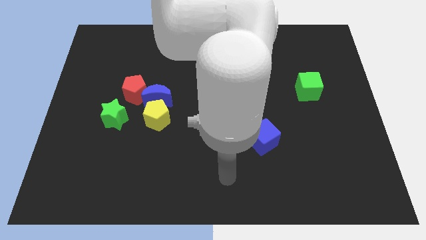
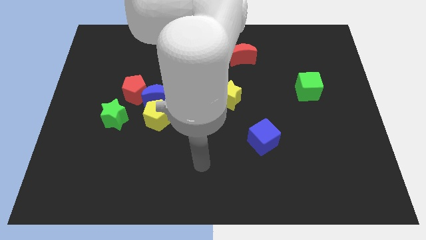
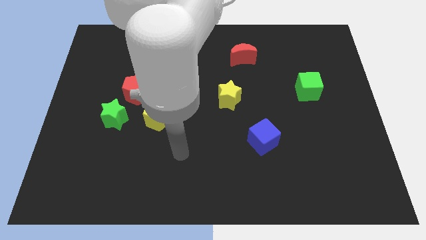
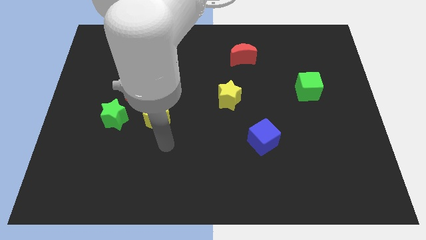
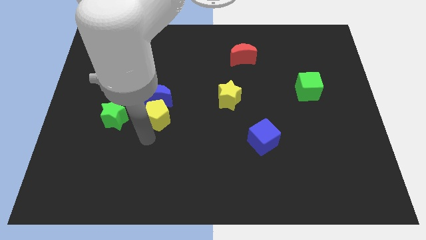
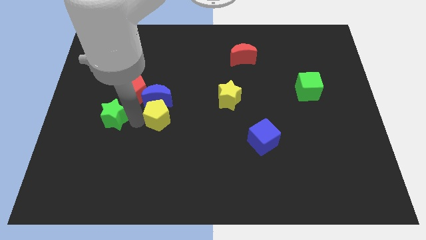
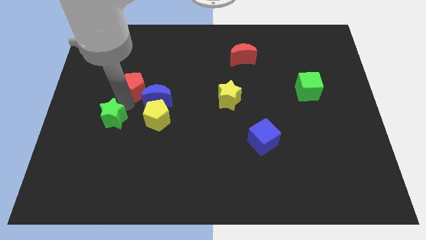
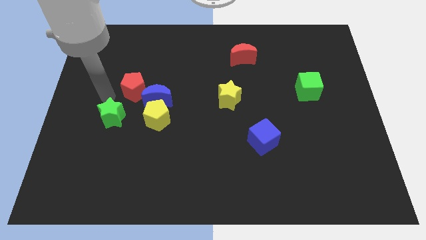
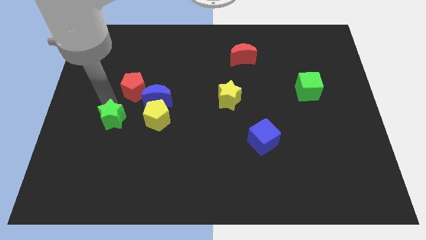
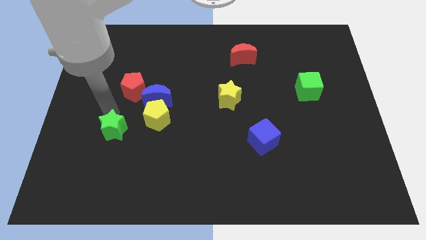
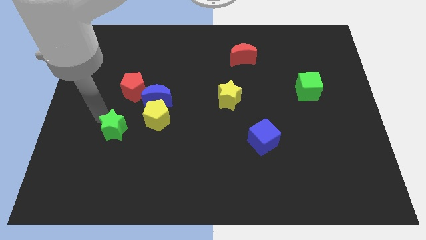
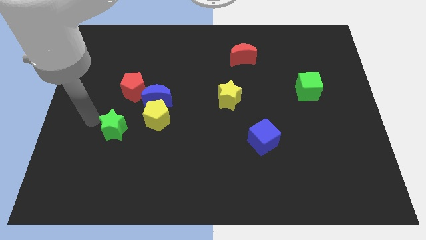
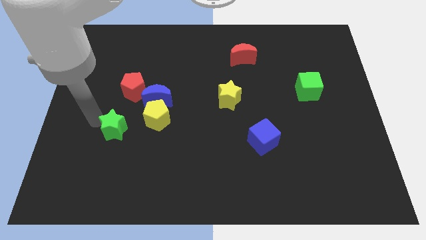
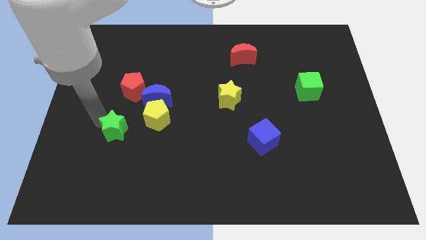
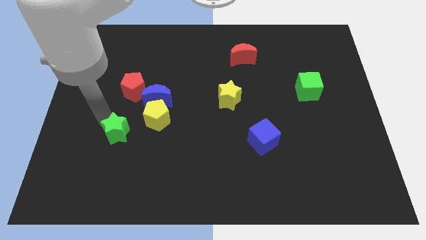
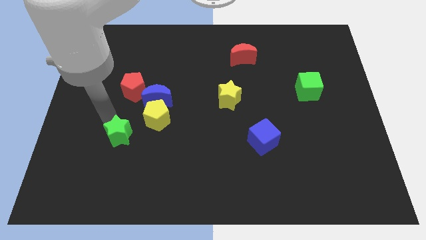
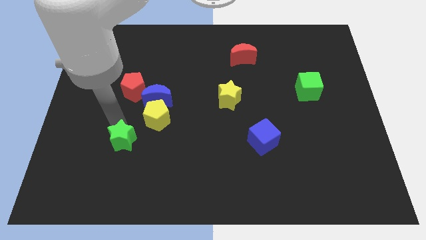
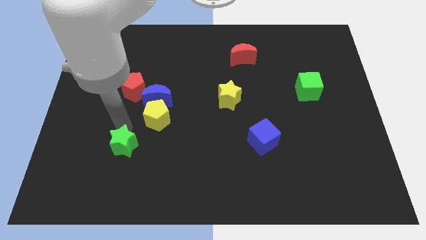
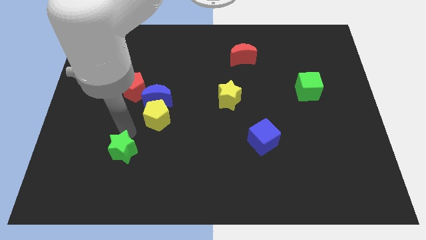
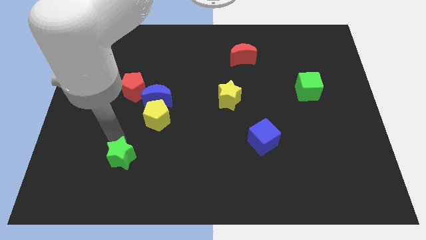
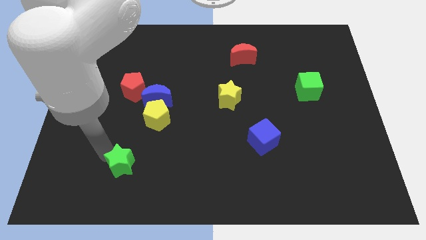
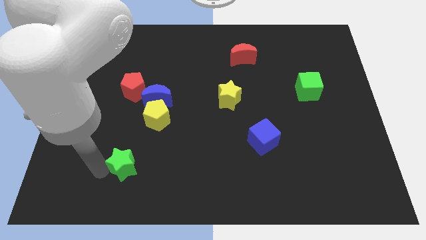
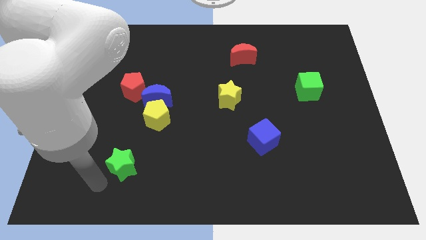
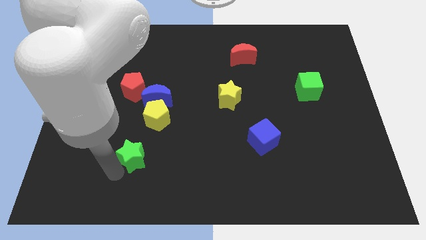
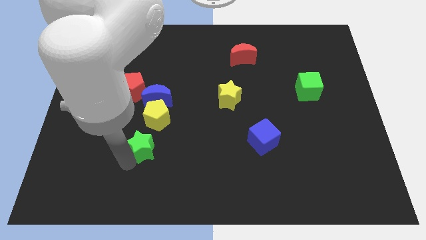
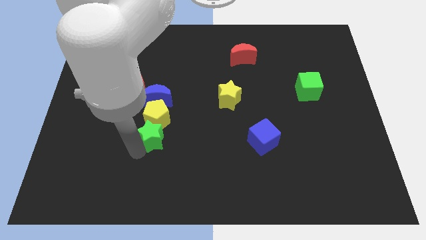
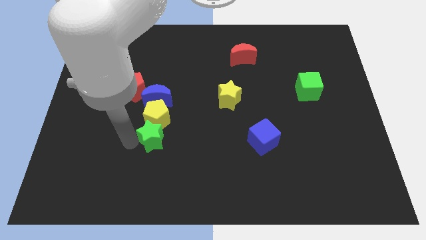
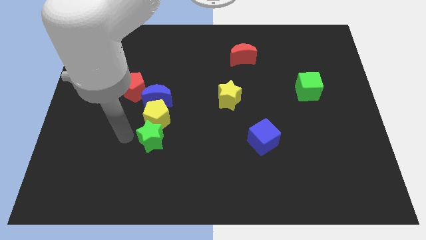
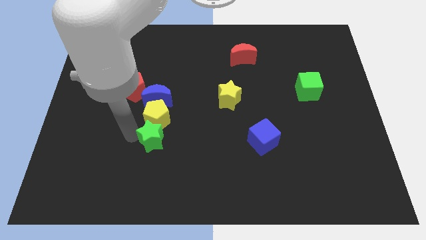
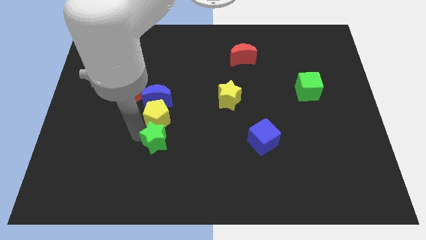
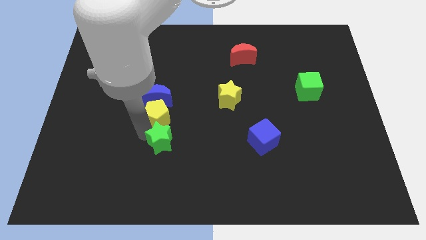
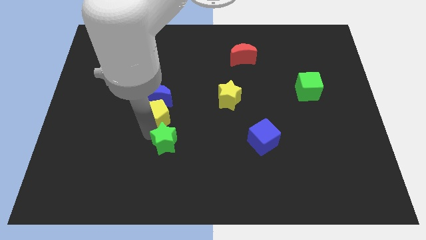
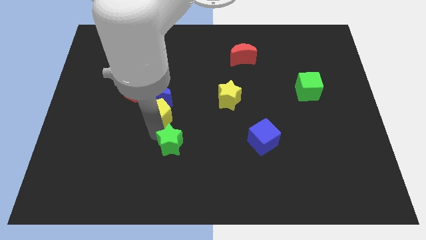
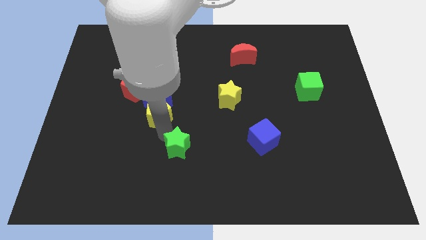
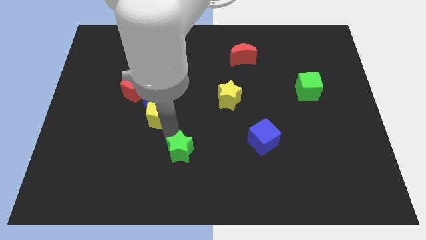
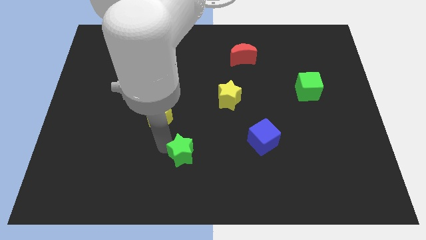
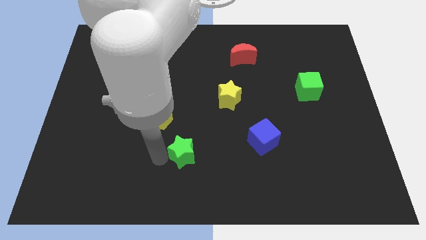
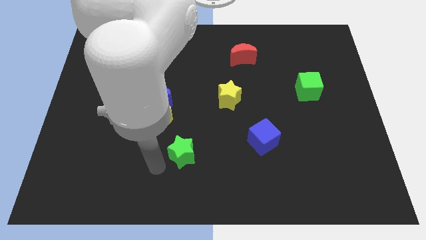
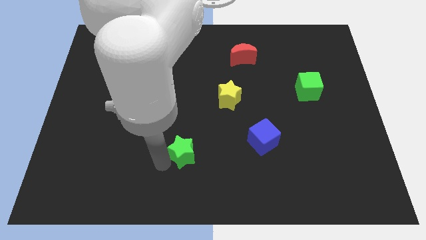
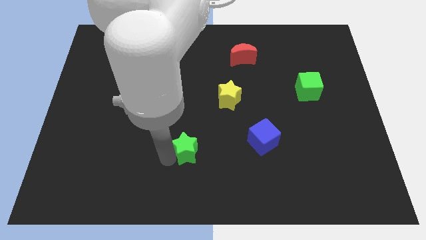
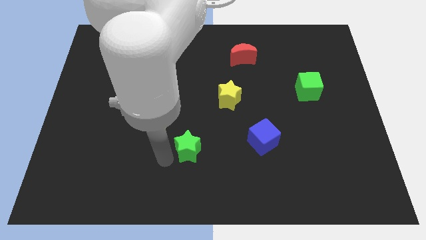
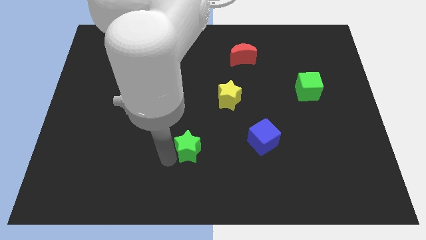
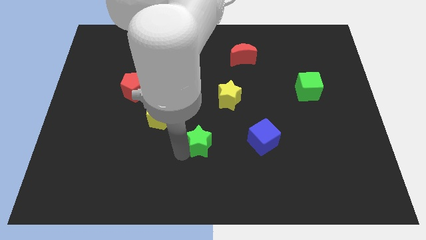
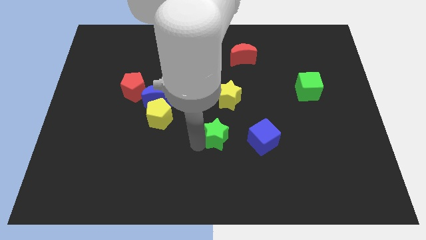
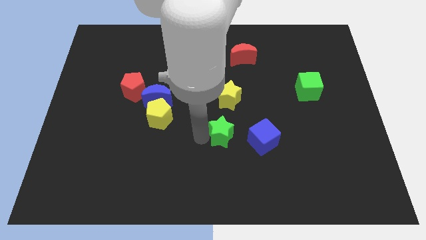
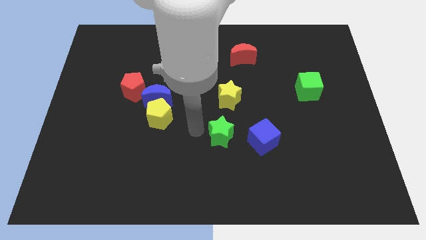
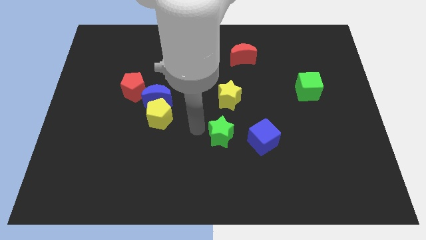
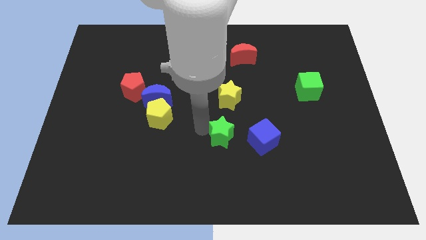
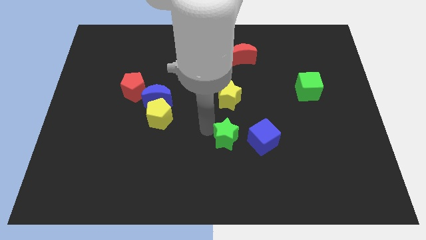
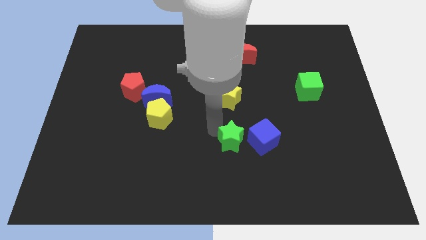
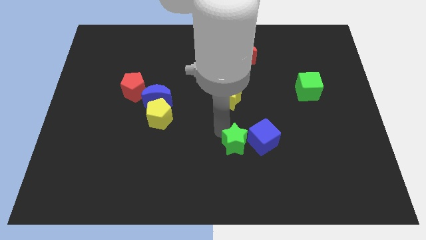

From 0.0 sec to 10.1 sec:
push the green star towards the blue cube

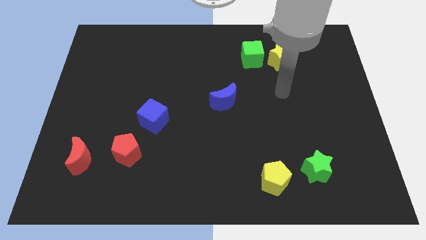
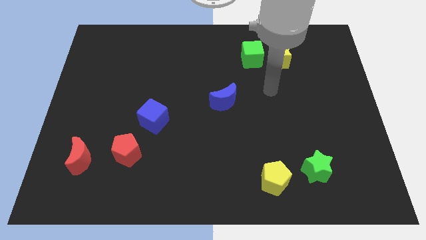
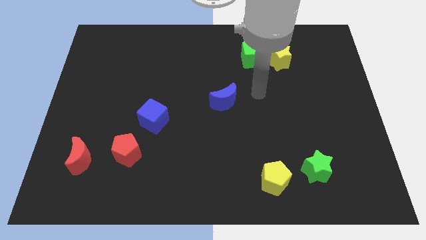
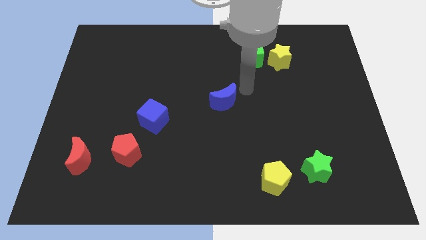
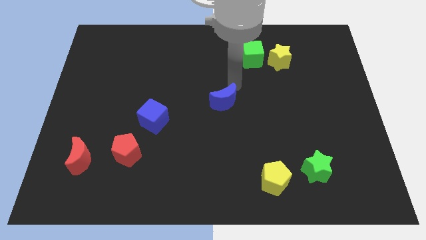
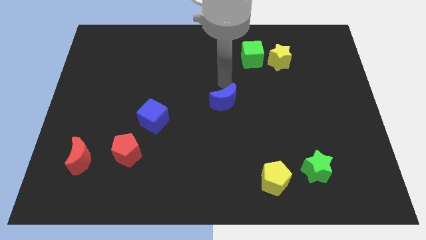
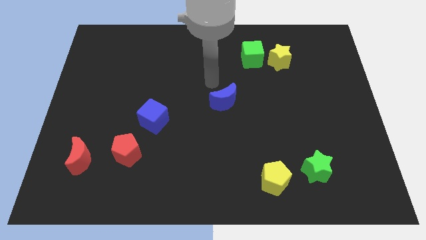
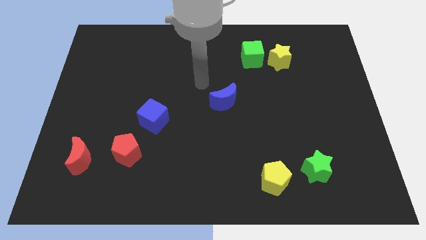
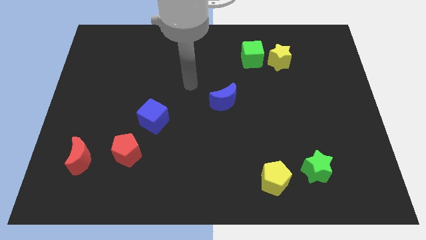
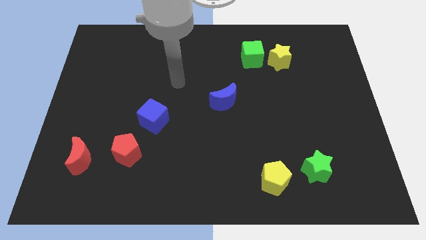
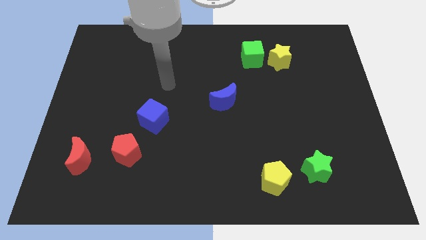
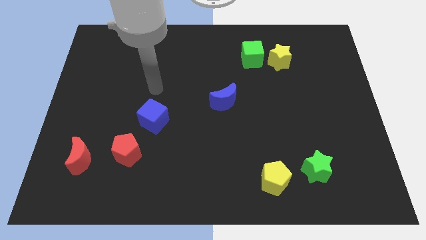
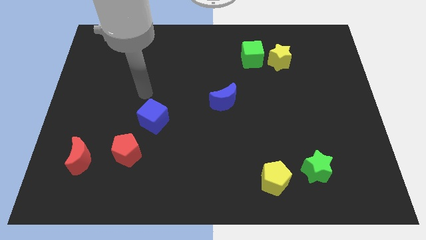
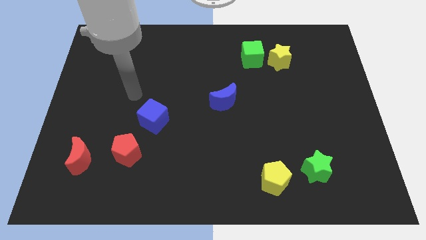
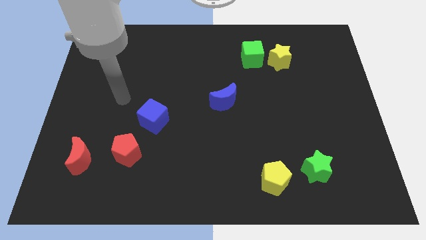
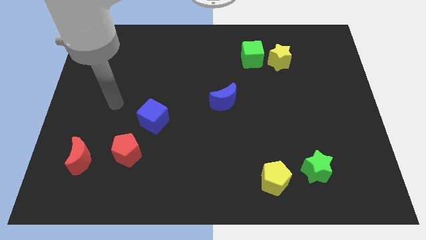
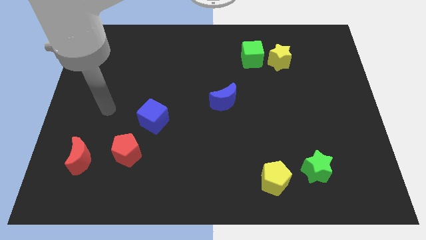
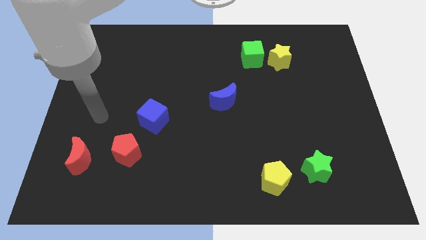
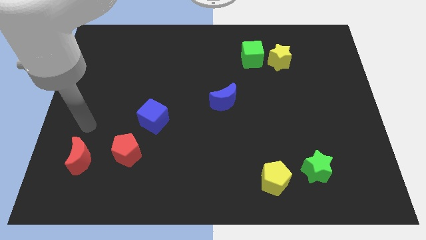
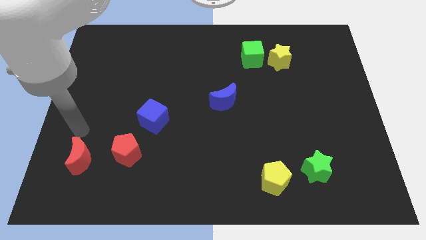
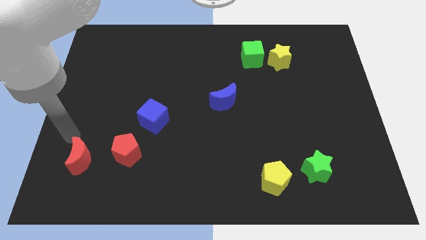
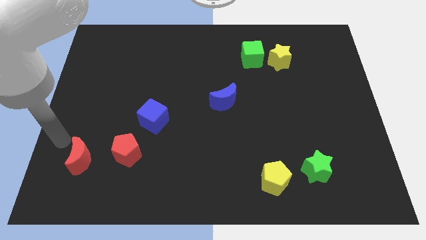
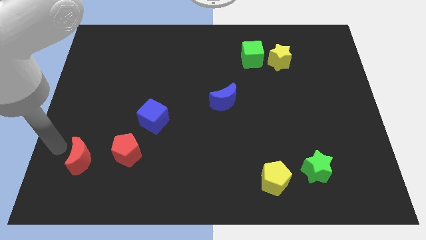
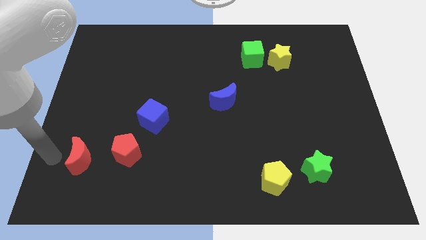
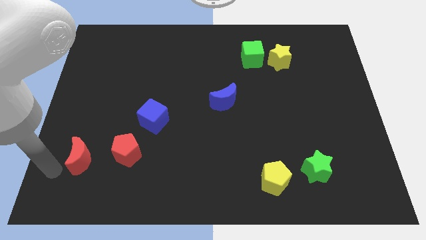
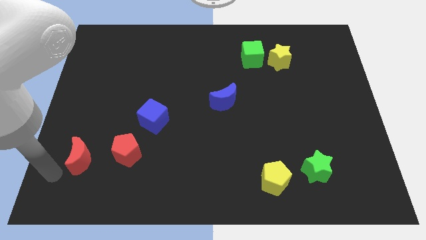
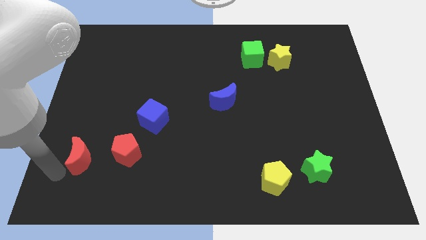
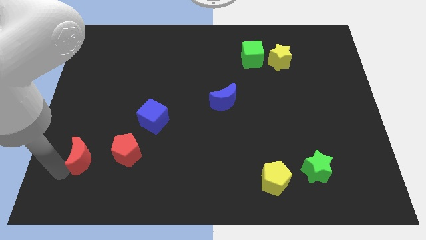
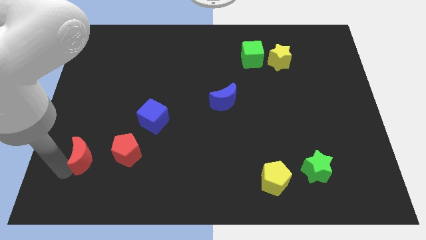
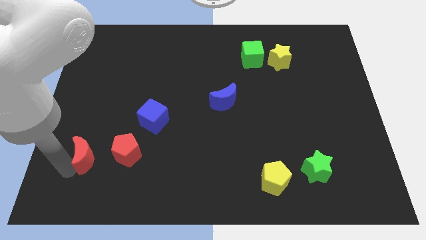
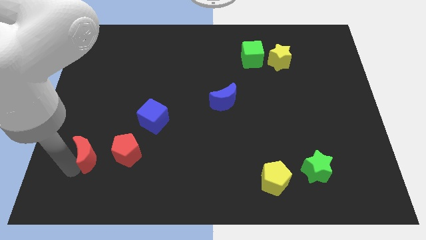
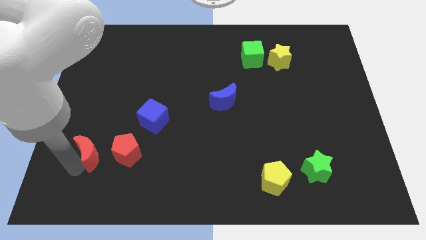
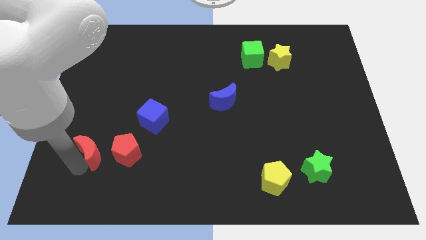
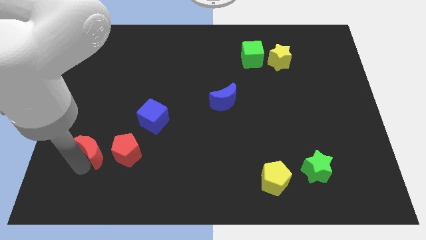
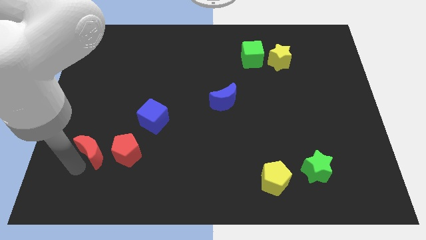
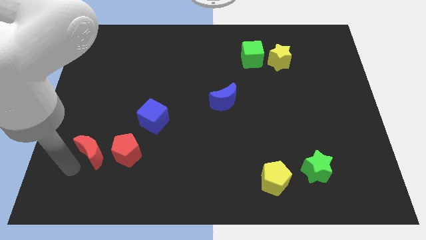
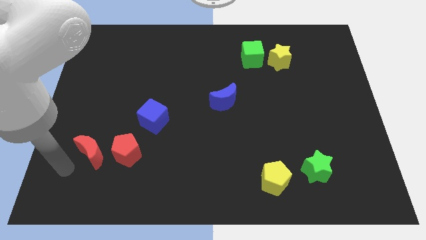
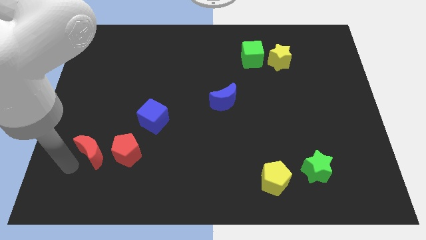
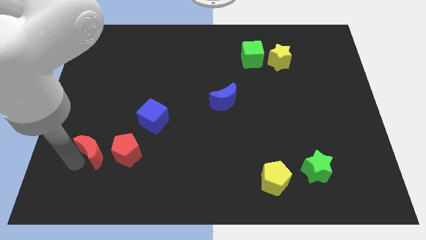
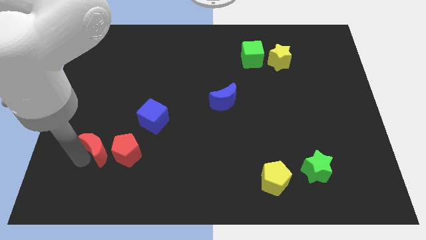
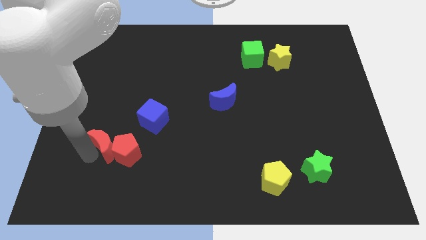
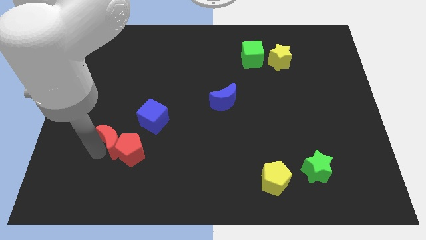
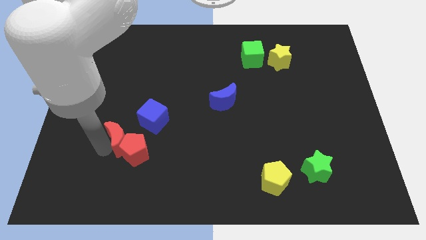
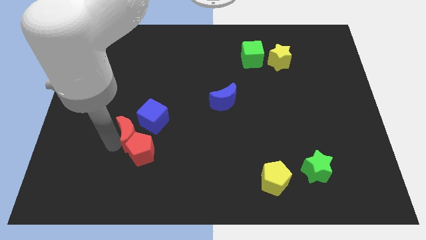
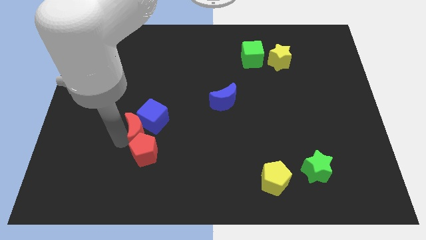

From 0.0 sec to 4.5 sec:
put the red moon towards the blue cube
